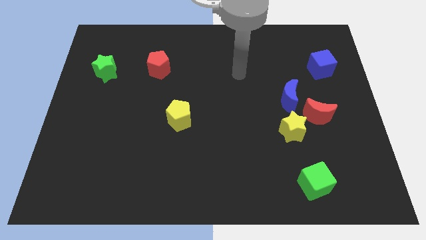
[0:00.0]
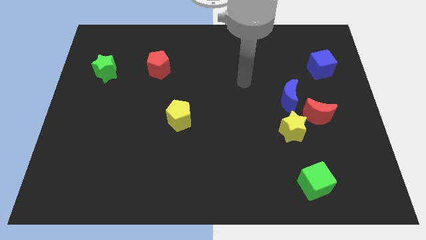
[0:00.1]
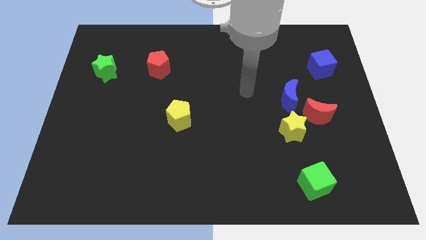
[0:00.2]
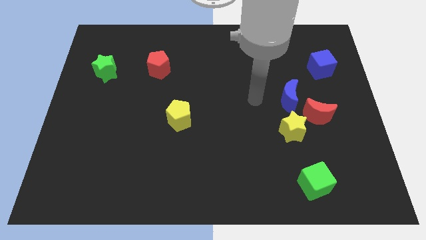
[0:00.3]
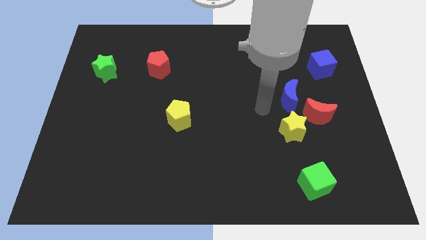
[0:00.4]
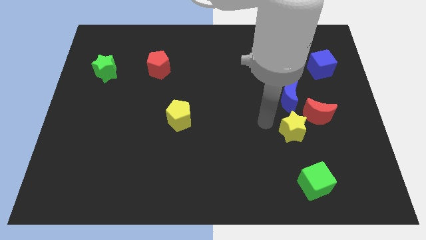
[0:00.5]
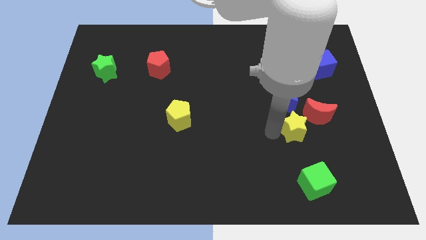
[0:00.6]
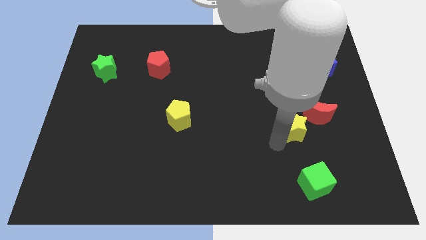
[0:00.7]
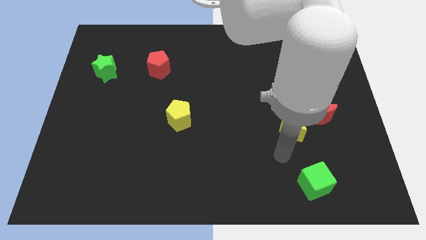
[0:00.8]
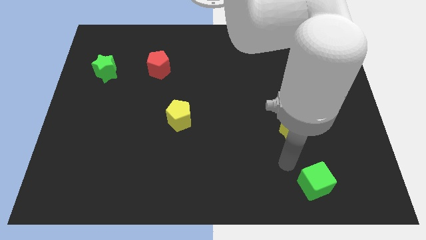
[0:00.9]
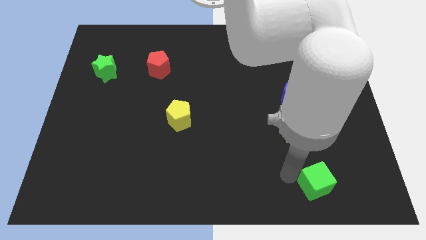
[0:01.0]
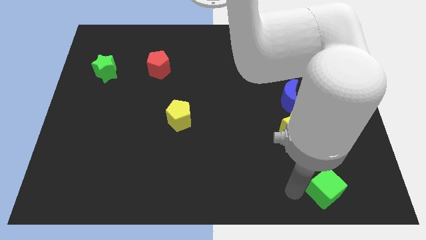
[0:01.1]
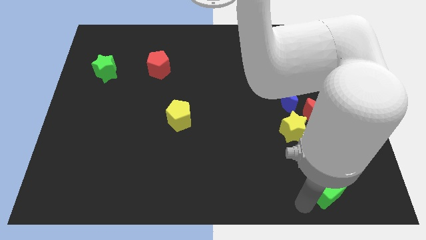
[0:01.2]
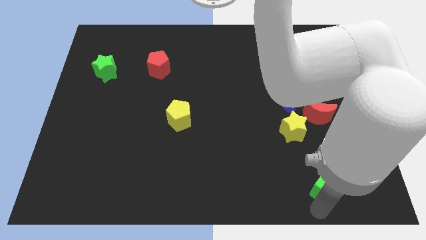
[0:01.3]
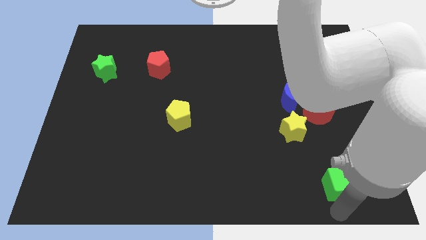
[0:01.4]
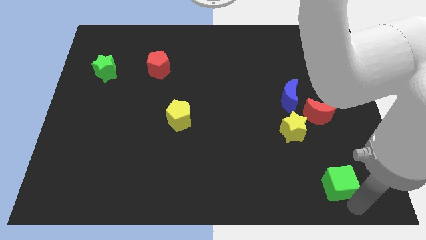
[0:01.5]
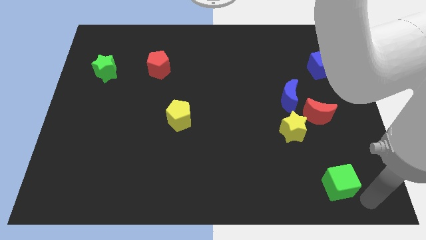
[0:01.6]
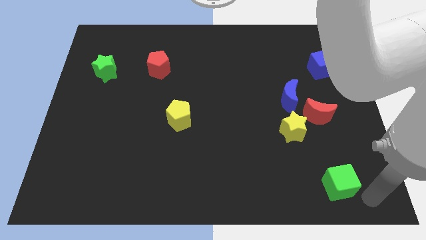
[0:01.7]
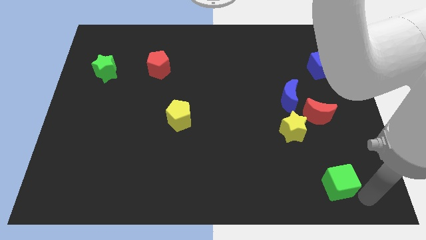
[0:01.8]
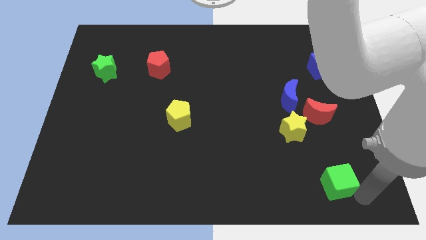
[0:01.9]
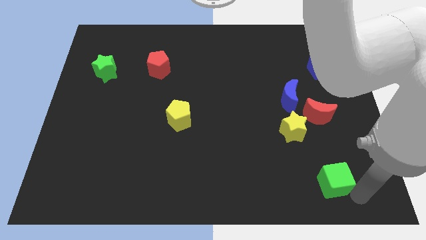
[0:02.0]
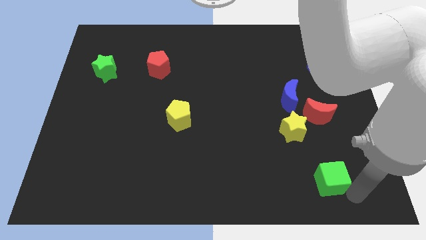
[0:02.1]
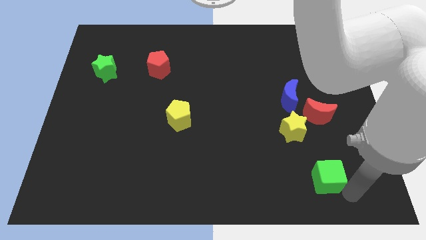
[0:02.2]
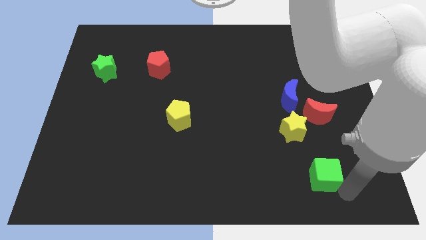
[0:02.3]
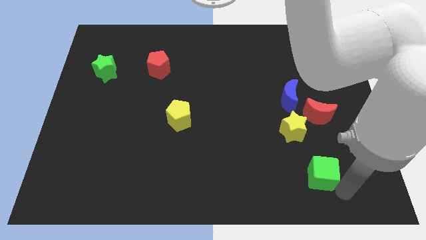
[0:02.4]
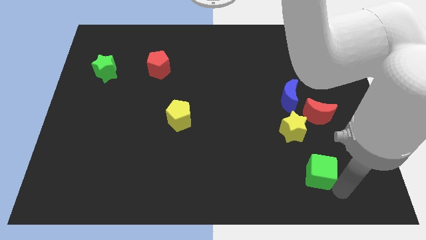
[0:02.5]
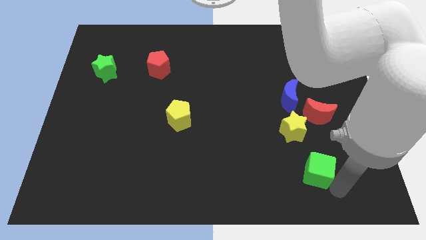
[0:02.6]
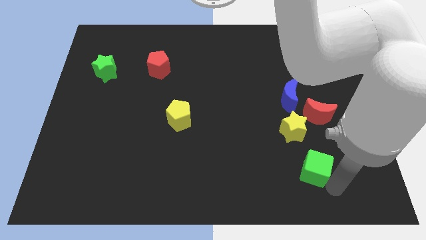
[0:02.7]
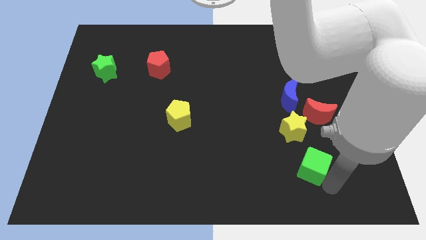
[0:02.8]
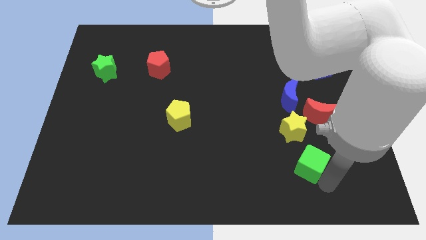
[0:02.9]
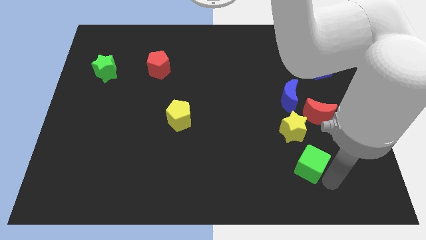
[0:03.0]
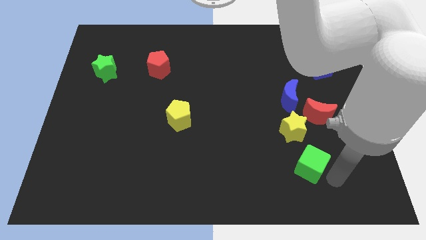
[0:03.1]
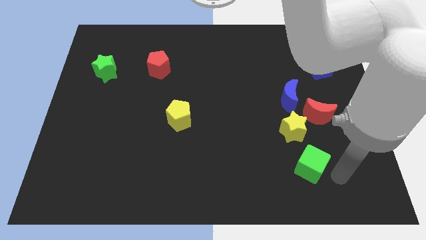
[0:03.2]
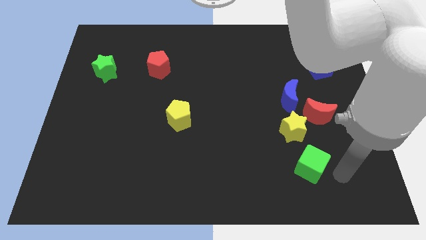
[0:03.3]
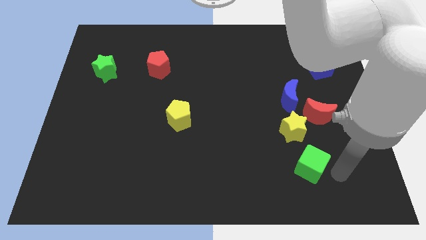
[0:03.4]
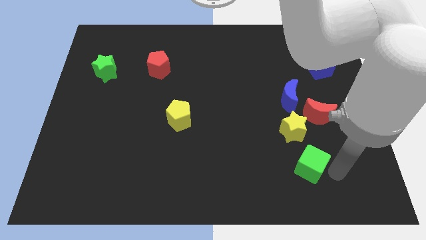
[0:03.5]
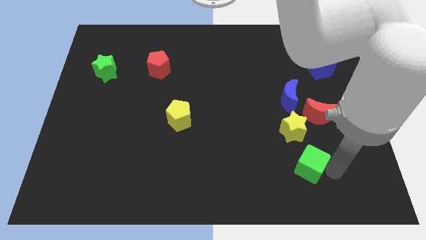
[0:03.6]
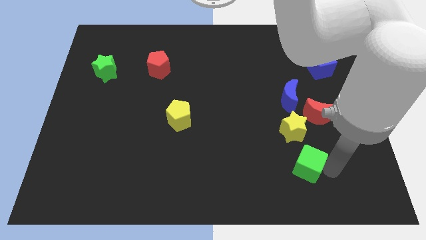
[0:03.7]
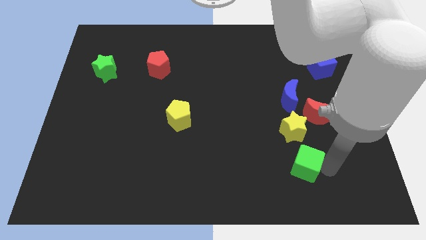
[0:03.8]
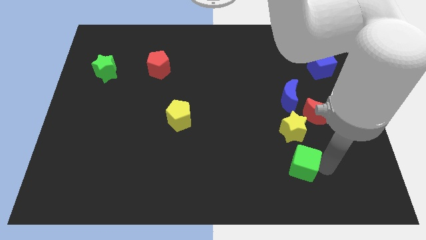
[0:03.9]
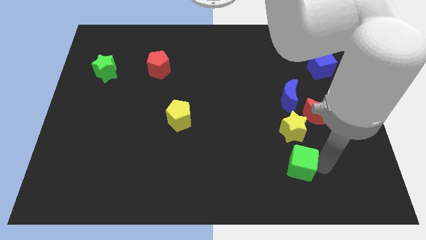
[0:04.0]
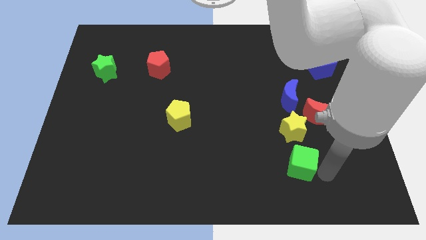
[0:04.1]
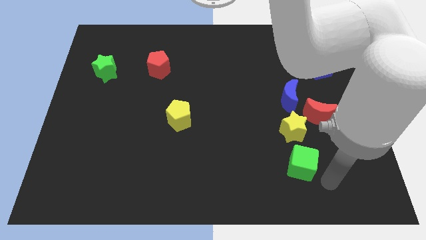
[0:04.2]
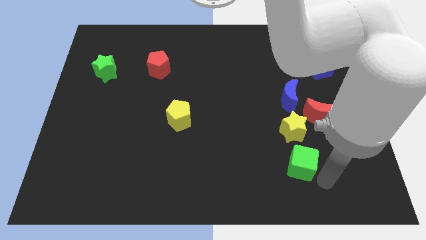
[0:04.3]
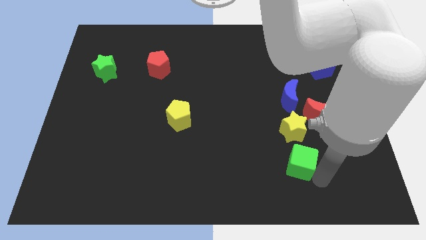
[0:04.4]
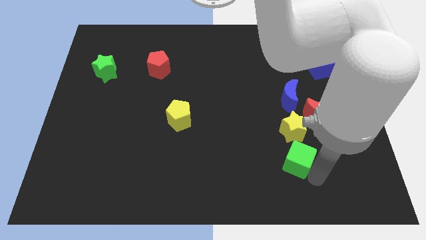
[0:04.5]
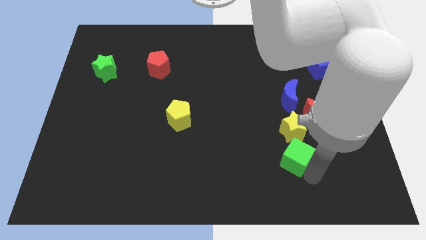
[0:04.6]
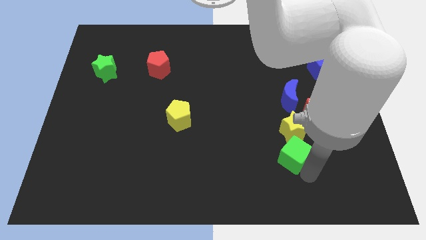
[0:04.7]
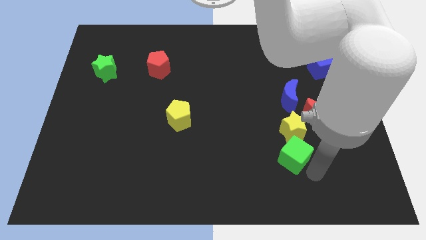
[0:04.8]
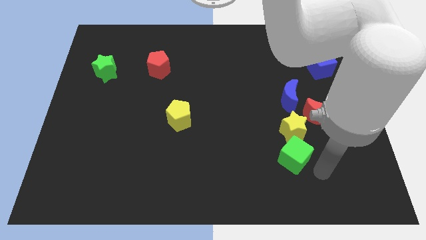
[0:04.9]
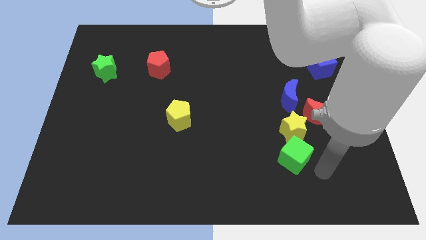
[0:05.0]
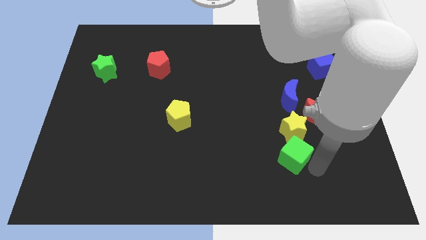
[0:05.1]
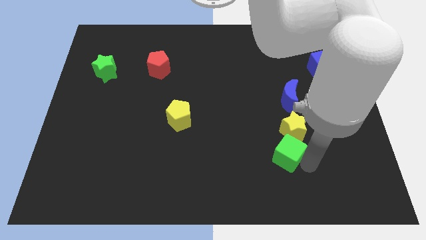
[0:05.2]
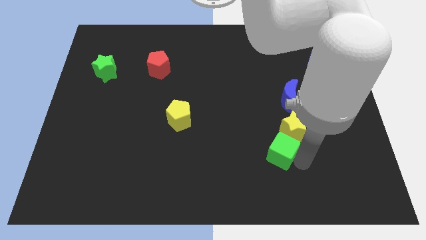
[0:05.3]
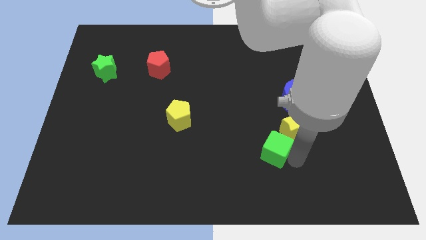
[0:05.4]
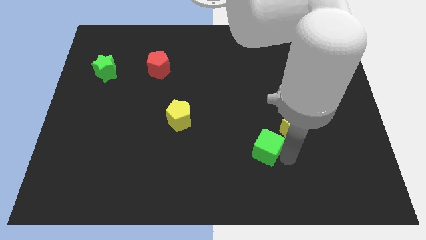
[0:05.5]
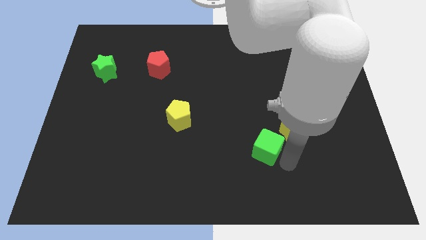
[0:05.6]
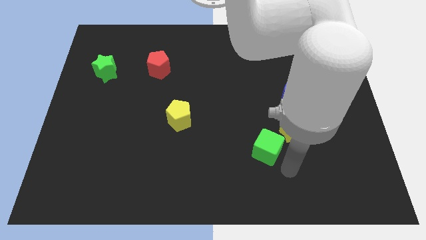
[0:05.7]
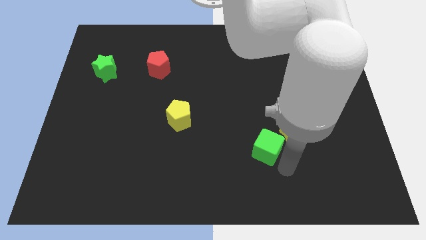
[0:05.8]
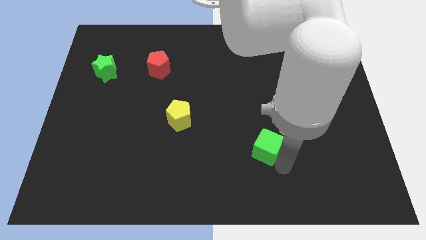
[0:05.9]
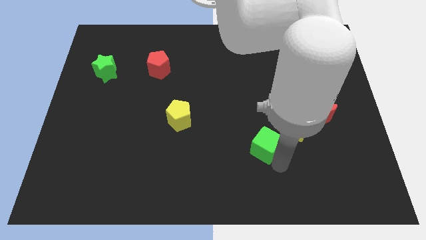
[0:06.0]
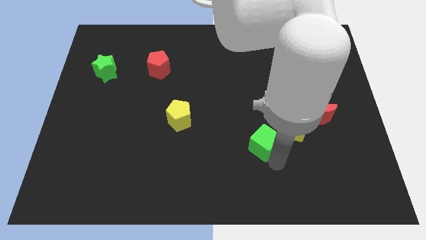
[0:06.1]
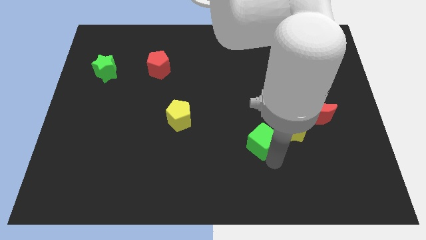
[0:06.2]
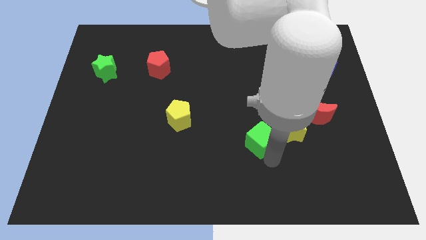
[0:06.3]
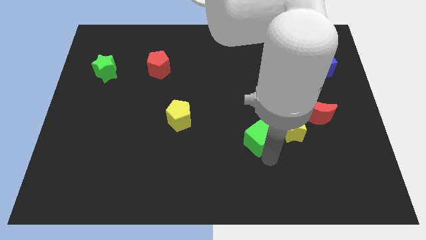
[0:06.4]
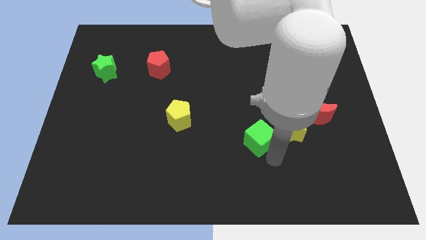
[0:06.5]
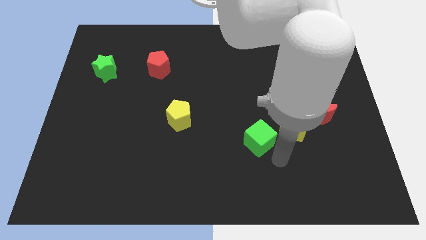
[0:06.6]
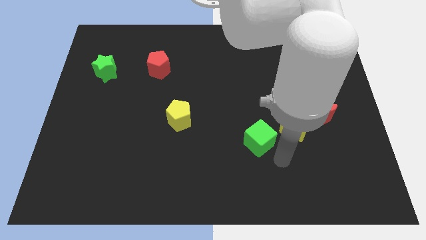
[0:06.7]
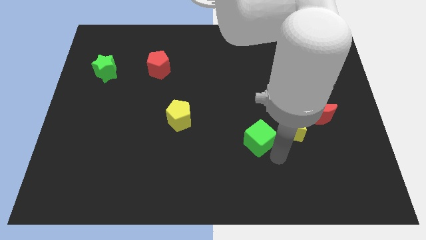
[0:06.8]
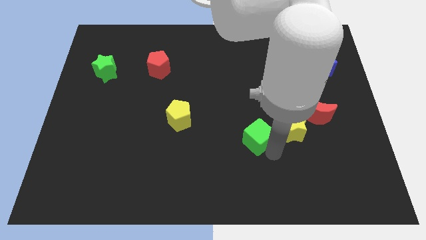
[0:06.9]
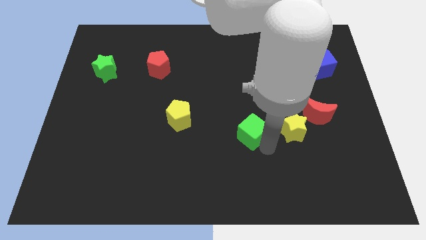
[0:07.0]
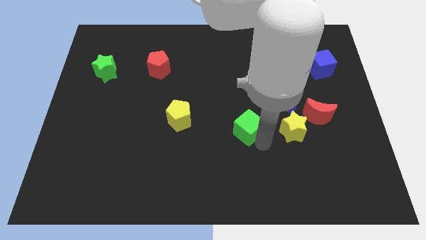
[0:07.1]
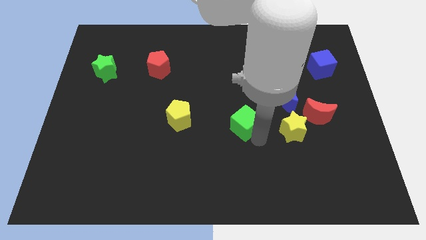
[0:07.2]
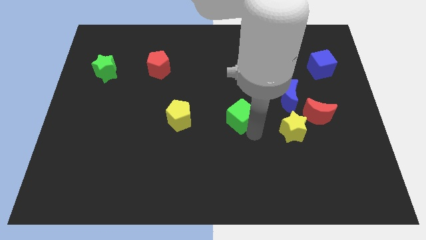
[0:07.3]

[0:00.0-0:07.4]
slide the green cube diagonally upwards and to the left

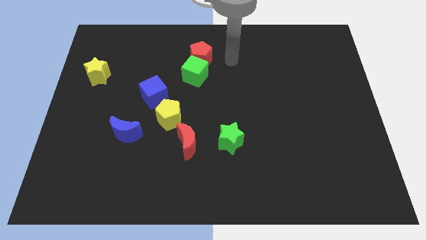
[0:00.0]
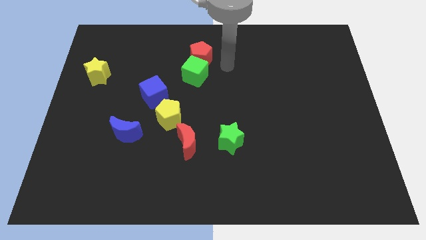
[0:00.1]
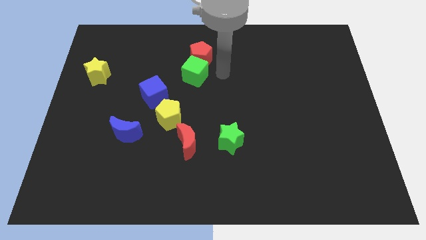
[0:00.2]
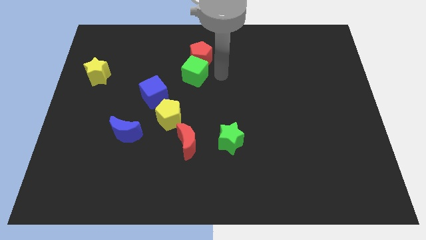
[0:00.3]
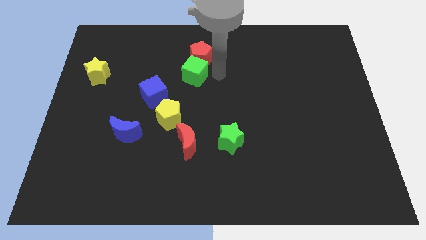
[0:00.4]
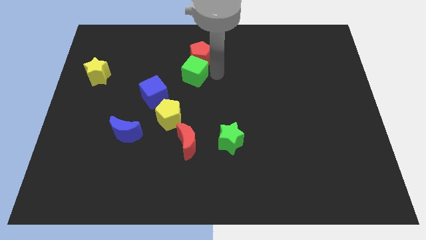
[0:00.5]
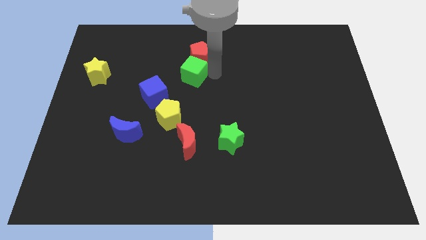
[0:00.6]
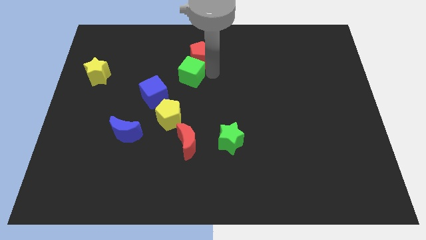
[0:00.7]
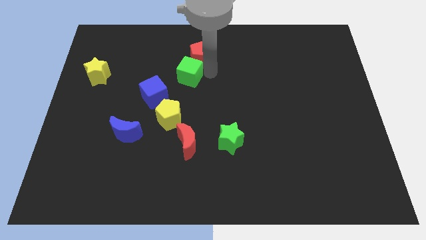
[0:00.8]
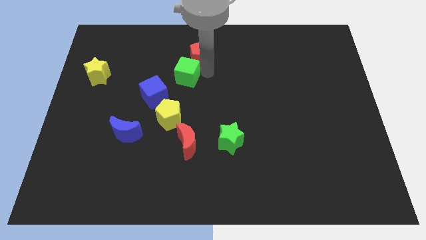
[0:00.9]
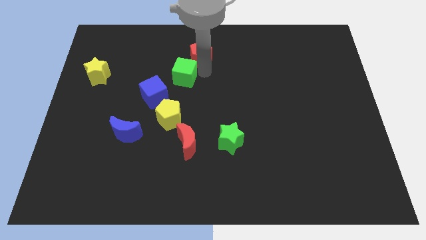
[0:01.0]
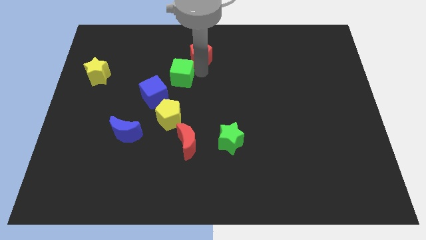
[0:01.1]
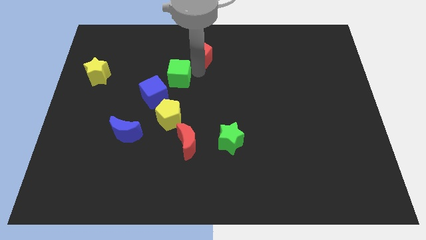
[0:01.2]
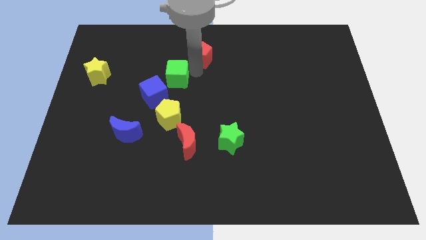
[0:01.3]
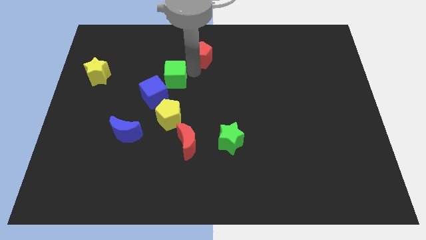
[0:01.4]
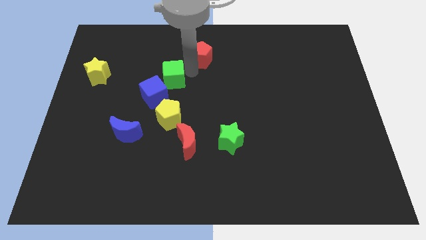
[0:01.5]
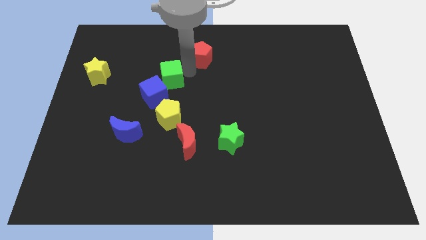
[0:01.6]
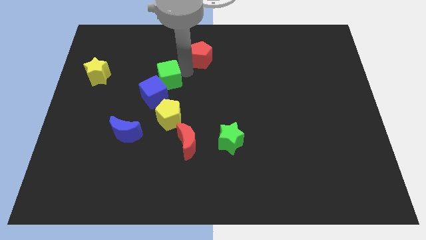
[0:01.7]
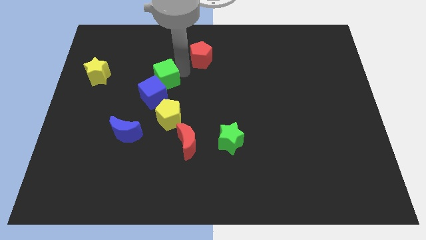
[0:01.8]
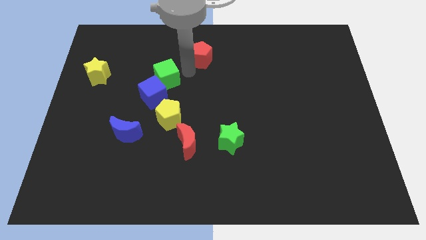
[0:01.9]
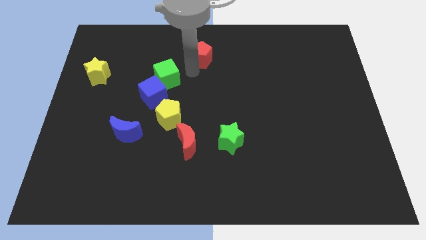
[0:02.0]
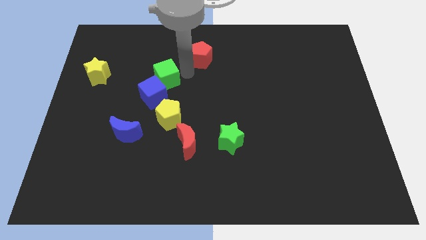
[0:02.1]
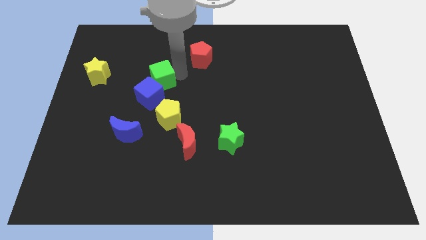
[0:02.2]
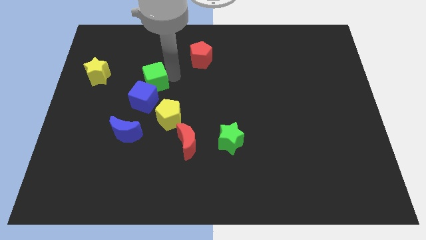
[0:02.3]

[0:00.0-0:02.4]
move the green cube downwards and then to the left somewhat
